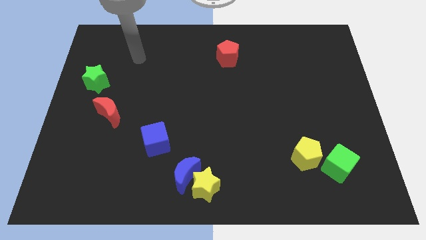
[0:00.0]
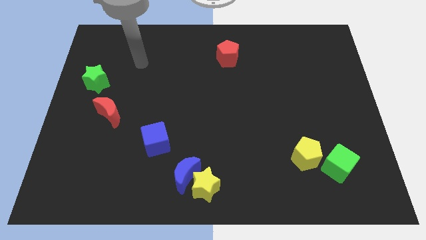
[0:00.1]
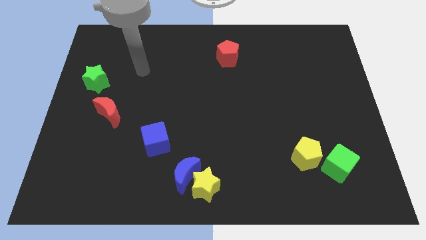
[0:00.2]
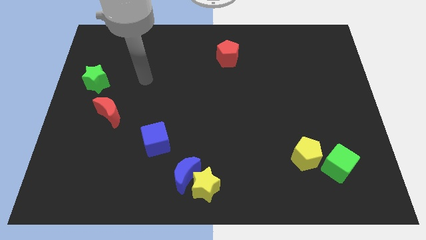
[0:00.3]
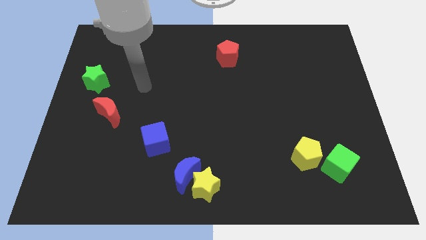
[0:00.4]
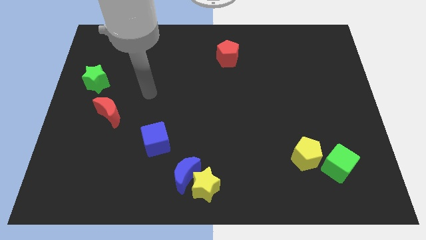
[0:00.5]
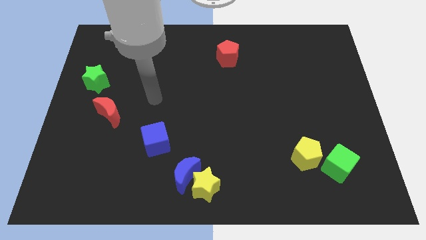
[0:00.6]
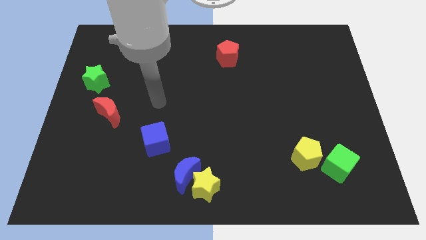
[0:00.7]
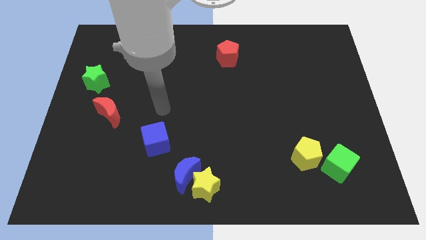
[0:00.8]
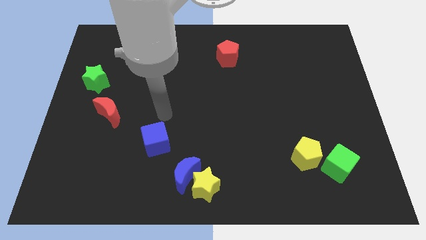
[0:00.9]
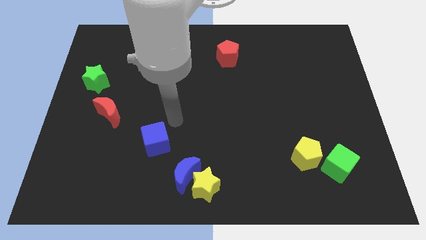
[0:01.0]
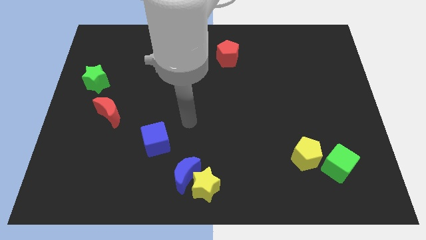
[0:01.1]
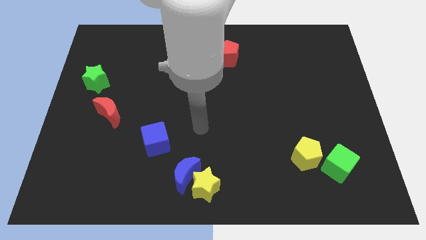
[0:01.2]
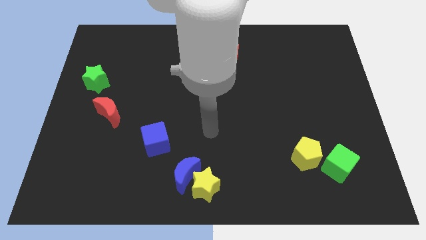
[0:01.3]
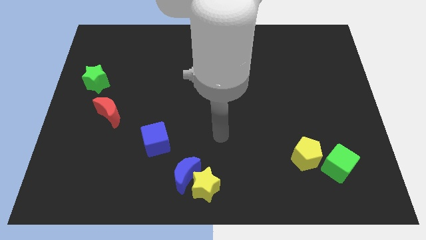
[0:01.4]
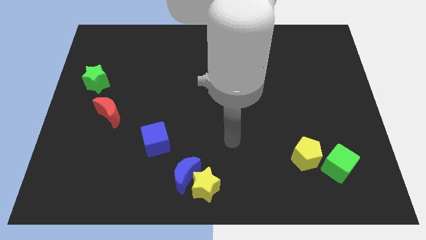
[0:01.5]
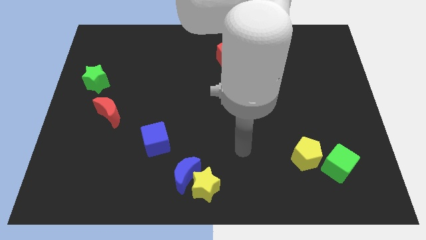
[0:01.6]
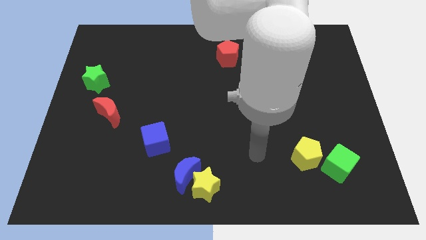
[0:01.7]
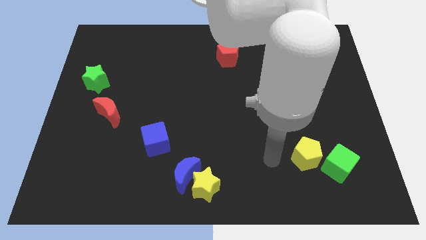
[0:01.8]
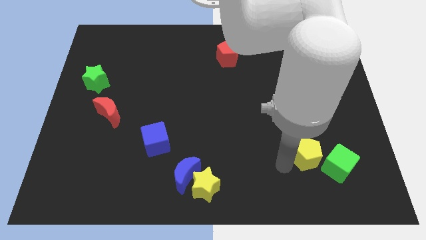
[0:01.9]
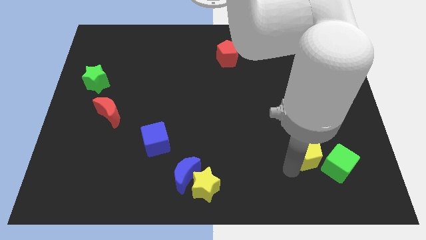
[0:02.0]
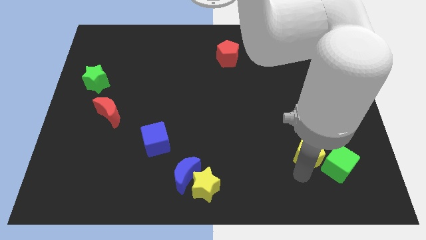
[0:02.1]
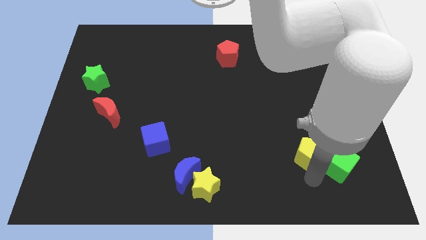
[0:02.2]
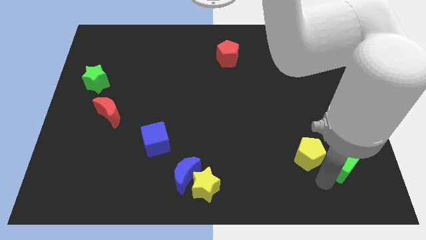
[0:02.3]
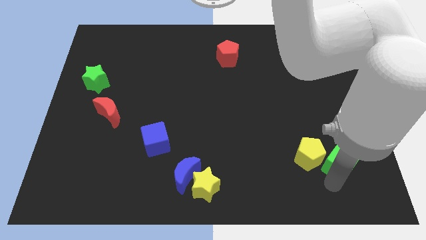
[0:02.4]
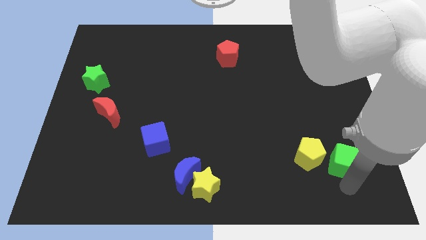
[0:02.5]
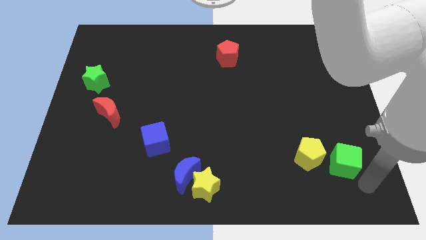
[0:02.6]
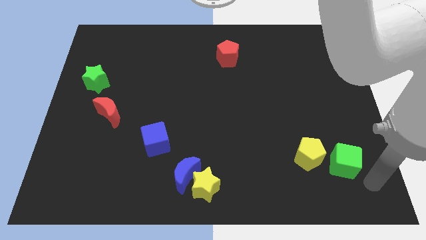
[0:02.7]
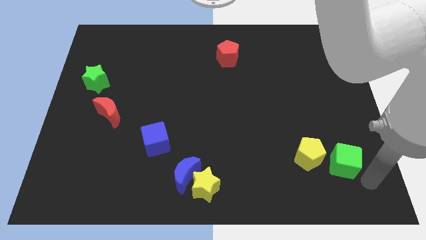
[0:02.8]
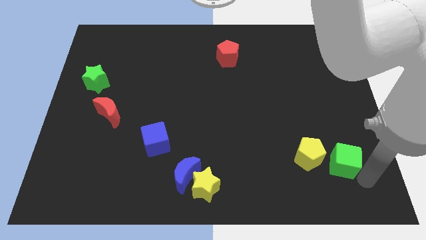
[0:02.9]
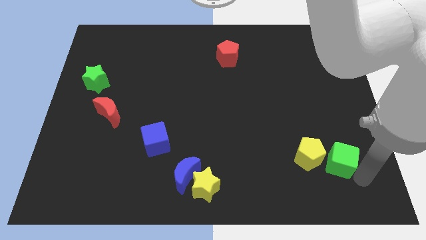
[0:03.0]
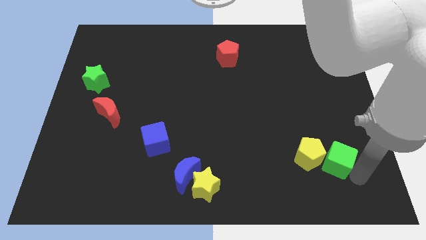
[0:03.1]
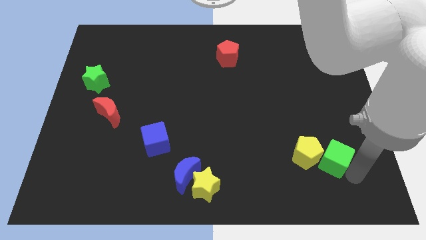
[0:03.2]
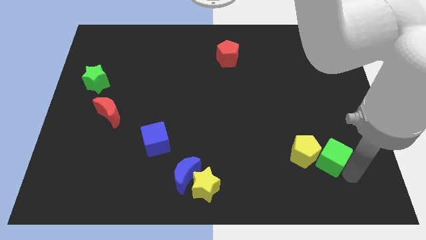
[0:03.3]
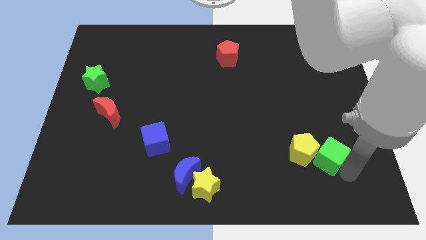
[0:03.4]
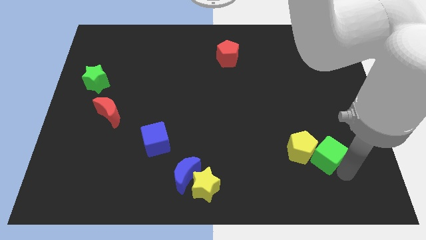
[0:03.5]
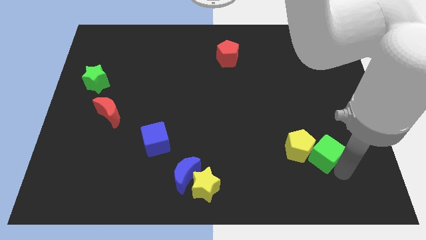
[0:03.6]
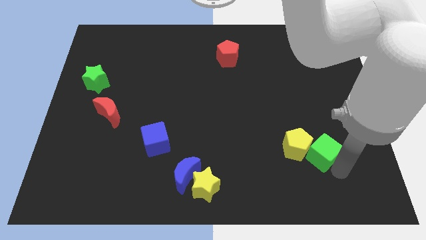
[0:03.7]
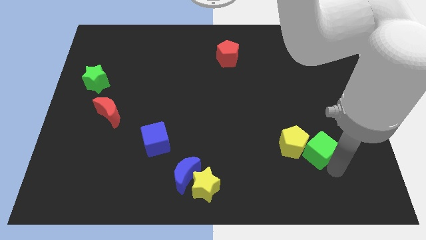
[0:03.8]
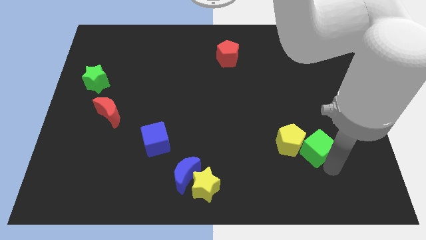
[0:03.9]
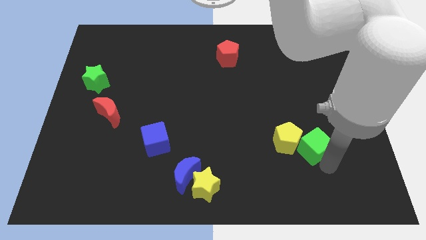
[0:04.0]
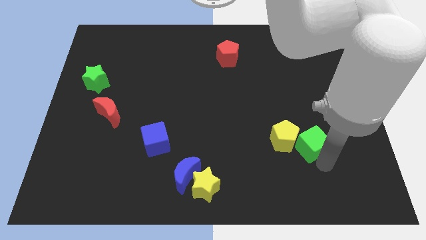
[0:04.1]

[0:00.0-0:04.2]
slightly push the green cube up and to the left

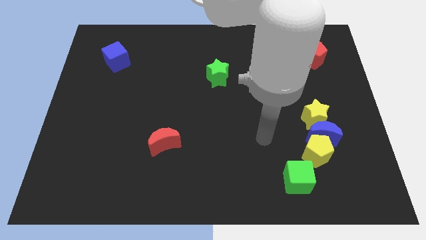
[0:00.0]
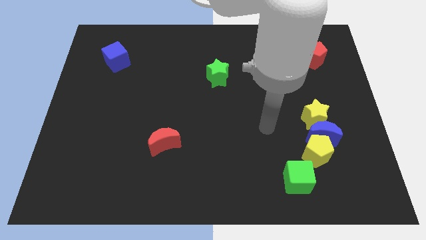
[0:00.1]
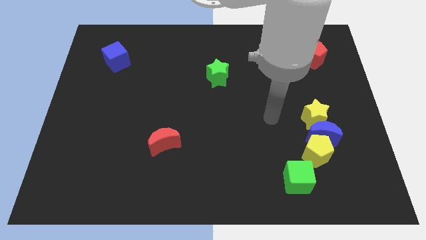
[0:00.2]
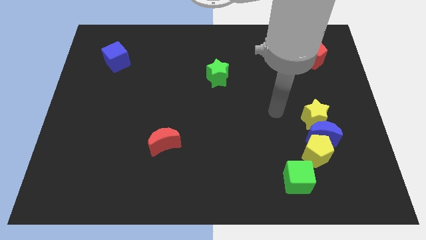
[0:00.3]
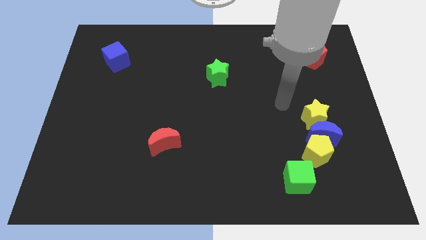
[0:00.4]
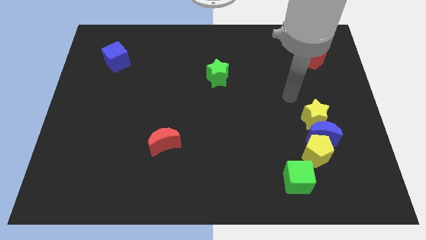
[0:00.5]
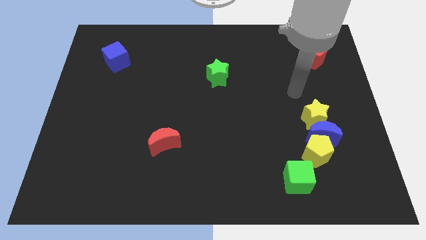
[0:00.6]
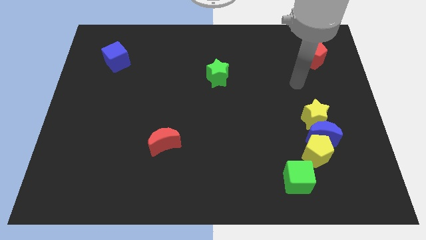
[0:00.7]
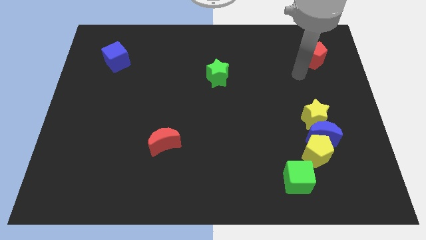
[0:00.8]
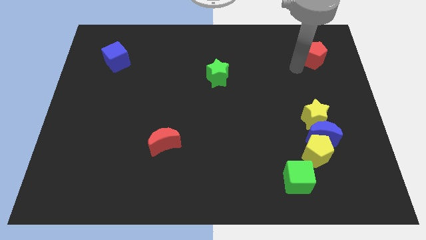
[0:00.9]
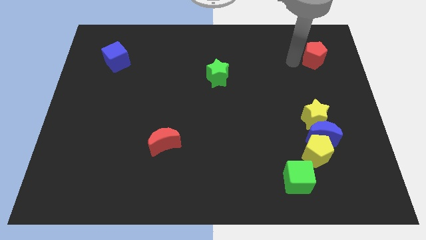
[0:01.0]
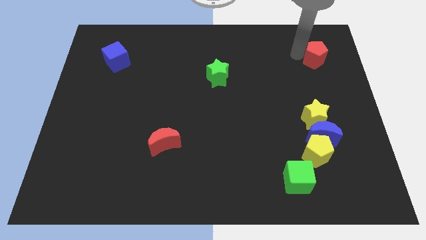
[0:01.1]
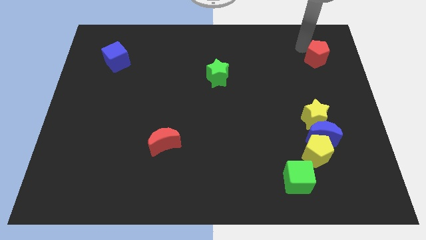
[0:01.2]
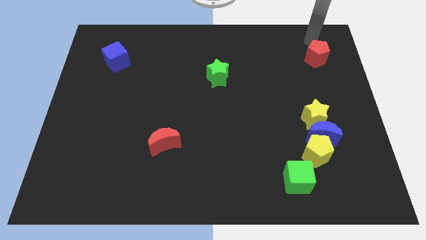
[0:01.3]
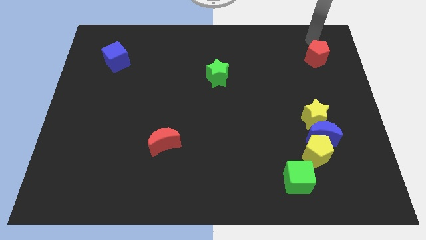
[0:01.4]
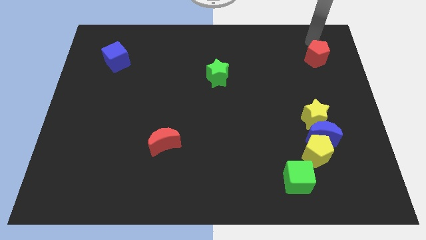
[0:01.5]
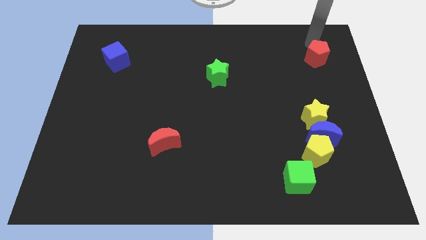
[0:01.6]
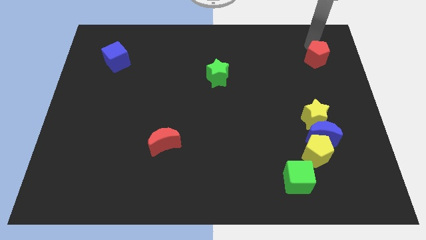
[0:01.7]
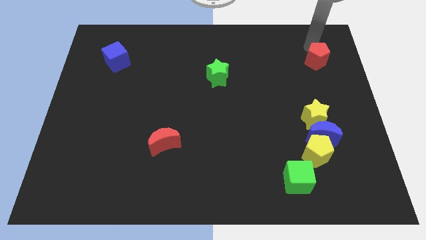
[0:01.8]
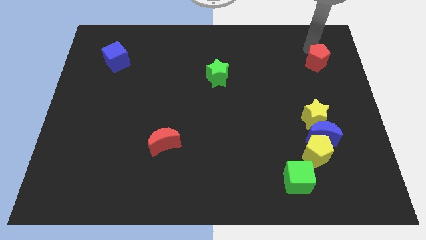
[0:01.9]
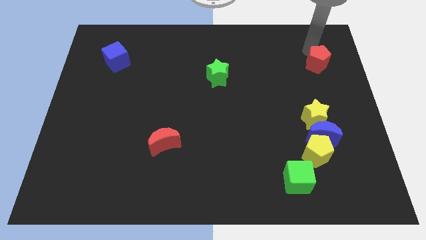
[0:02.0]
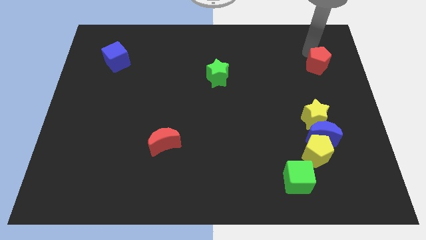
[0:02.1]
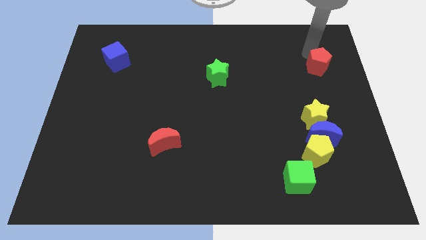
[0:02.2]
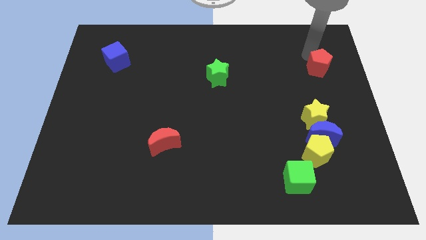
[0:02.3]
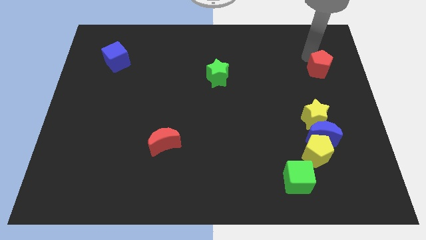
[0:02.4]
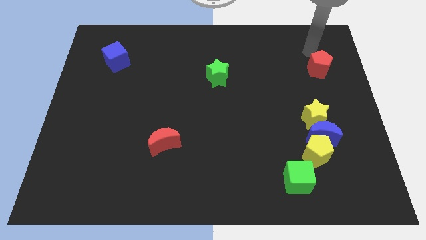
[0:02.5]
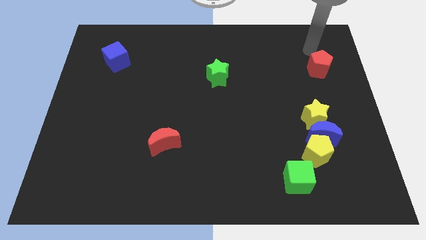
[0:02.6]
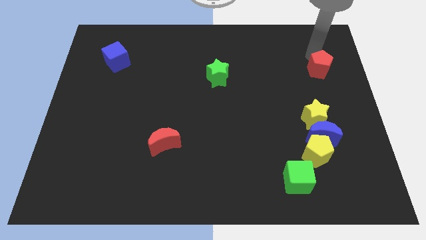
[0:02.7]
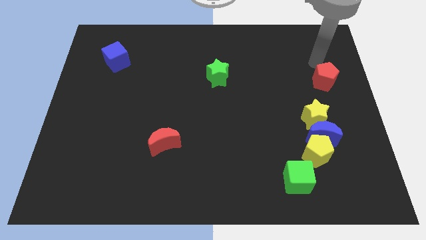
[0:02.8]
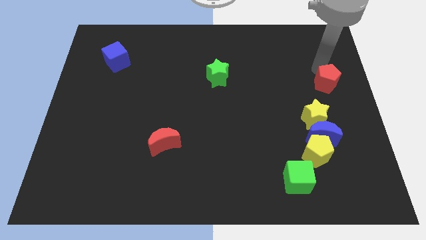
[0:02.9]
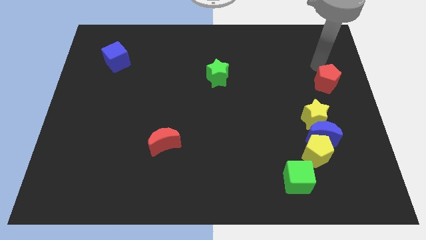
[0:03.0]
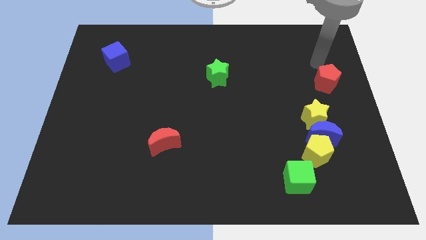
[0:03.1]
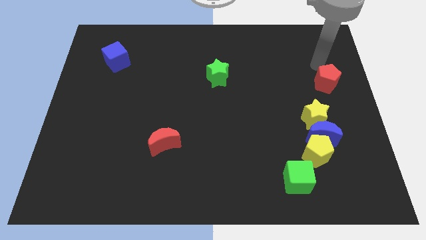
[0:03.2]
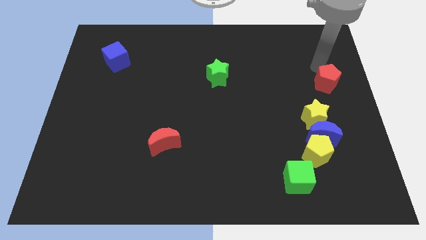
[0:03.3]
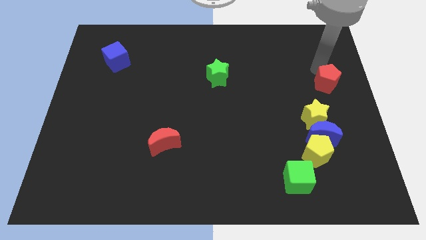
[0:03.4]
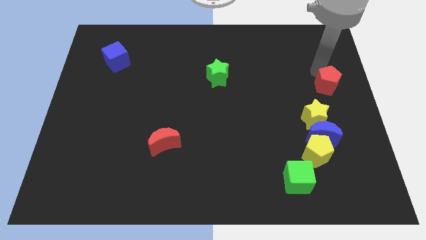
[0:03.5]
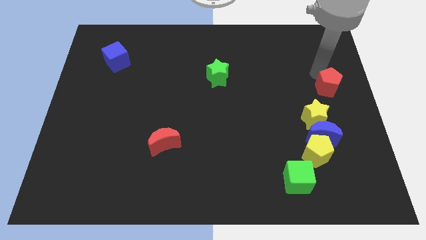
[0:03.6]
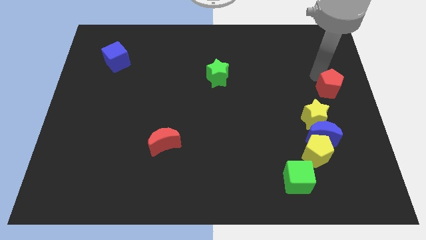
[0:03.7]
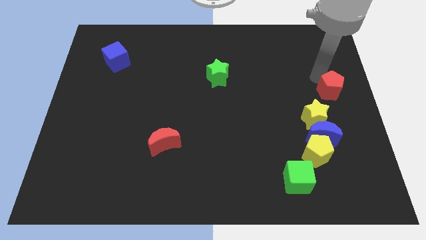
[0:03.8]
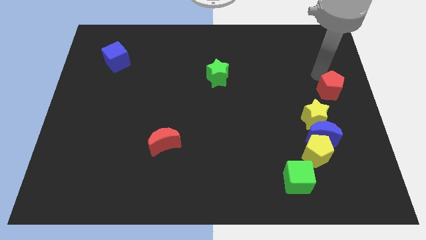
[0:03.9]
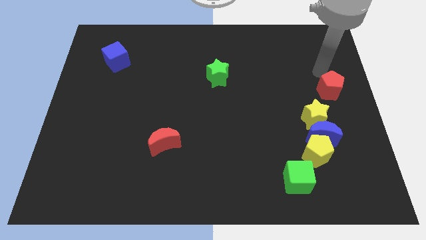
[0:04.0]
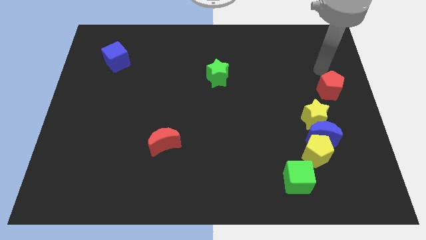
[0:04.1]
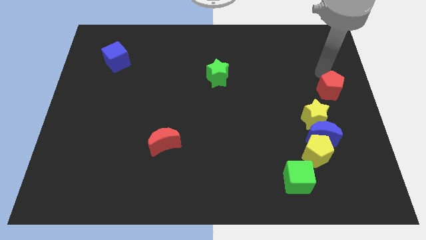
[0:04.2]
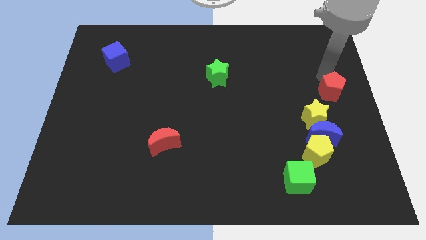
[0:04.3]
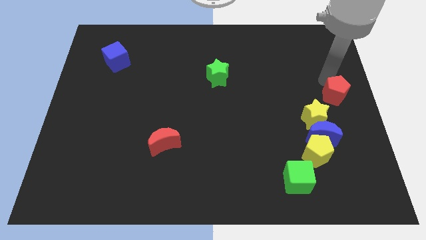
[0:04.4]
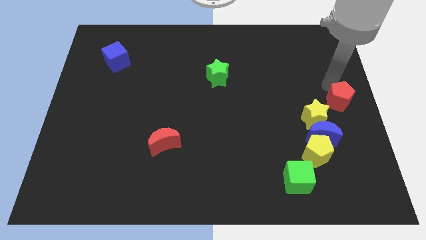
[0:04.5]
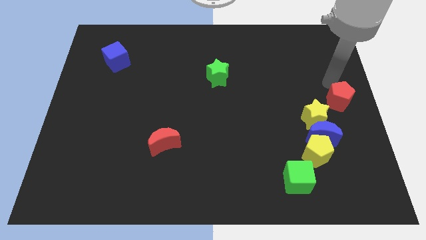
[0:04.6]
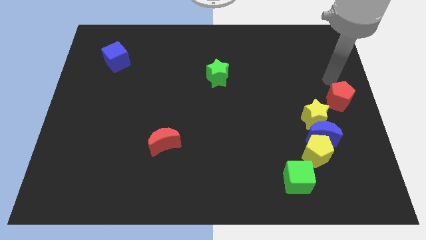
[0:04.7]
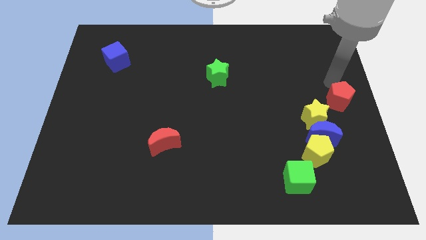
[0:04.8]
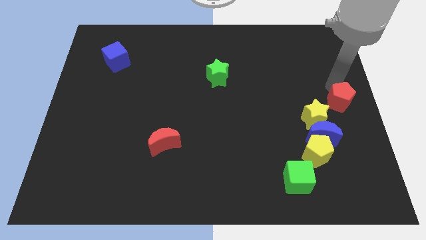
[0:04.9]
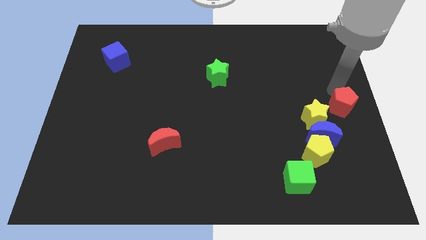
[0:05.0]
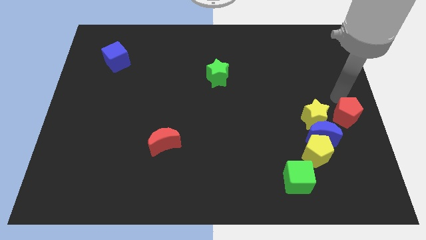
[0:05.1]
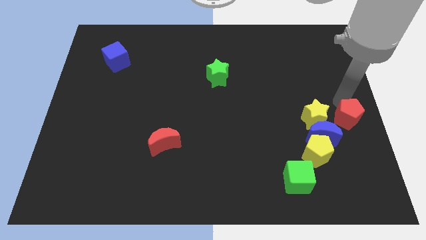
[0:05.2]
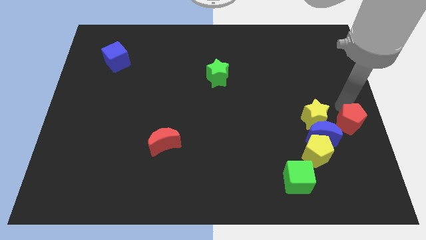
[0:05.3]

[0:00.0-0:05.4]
push the red pentagon down
